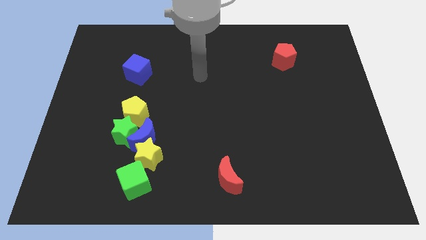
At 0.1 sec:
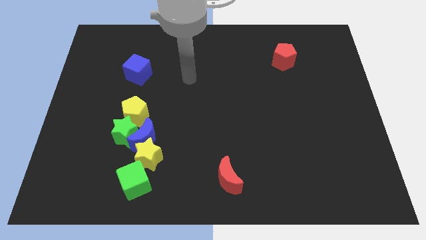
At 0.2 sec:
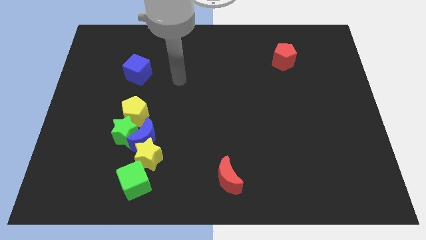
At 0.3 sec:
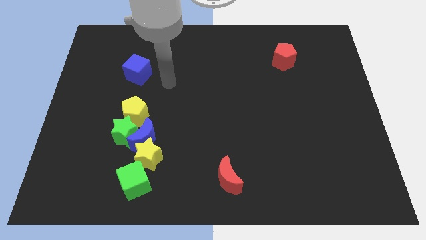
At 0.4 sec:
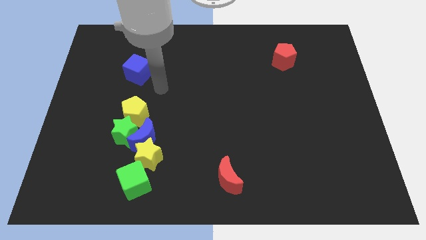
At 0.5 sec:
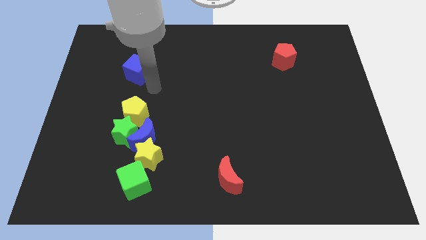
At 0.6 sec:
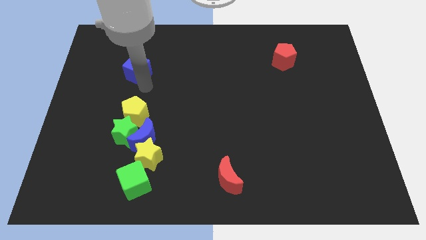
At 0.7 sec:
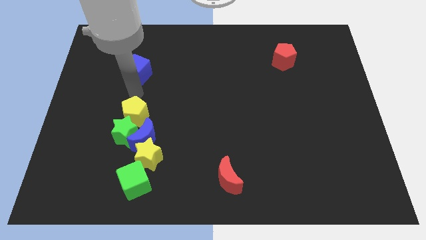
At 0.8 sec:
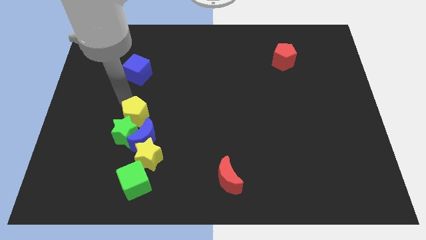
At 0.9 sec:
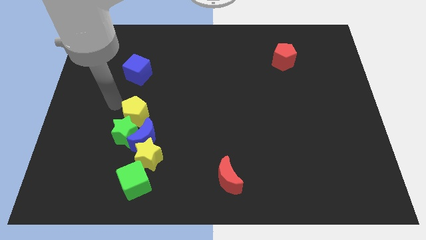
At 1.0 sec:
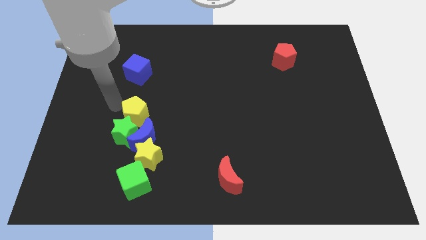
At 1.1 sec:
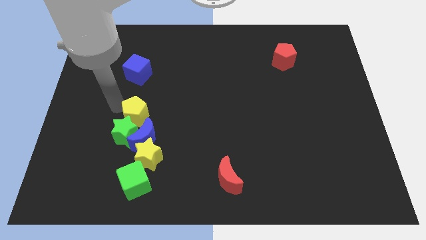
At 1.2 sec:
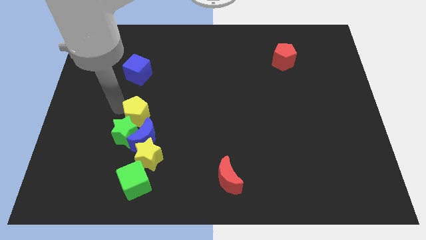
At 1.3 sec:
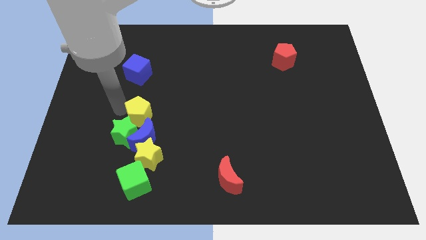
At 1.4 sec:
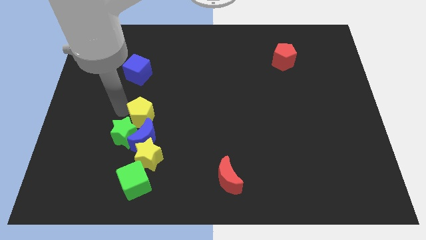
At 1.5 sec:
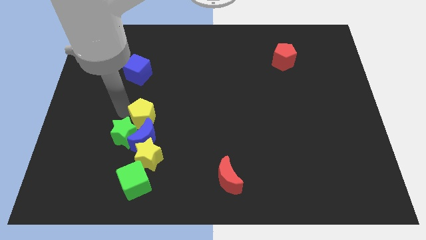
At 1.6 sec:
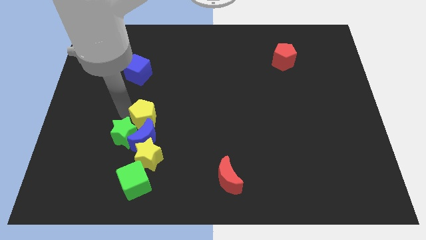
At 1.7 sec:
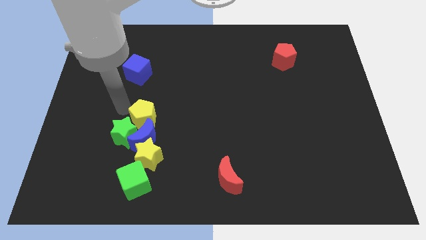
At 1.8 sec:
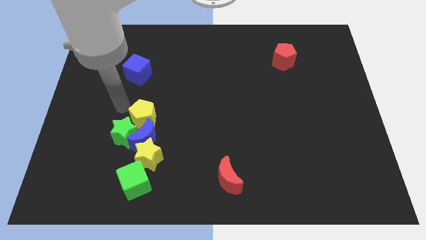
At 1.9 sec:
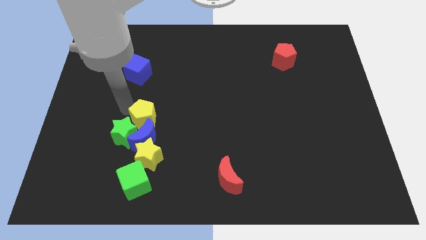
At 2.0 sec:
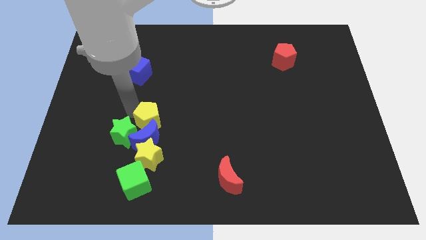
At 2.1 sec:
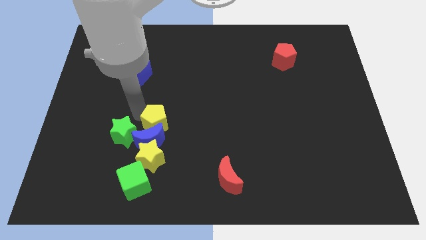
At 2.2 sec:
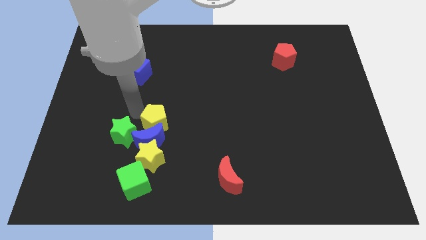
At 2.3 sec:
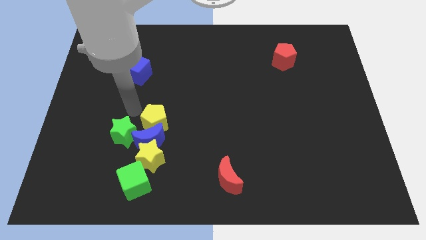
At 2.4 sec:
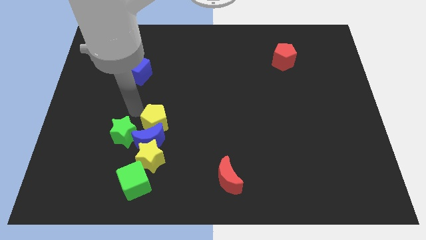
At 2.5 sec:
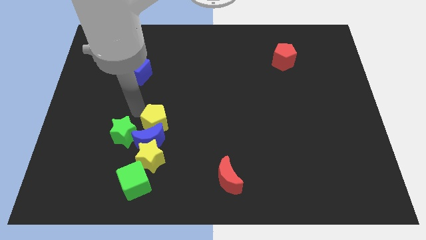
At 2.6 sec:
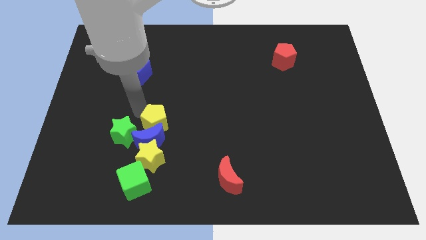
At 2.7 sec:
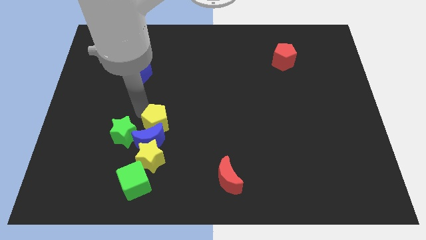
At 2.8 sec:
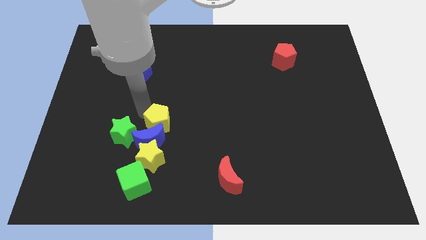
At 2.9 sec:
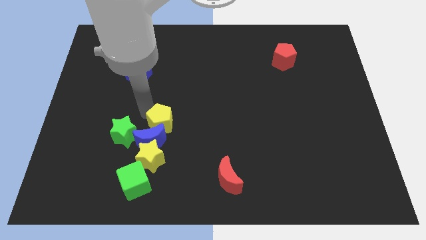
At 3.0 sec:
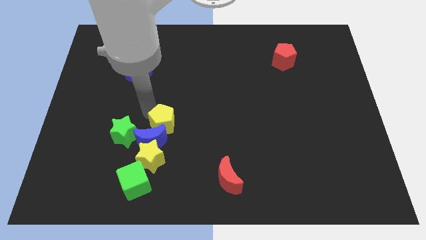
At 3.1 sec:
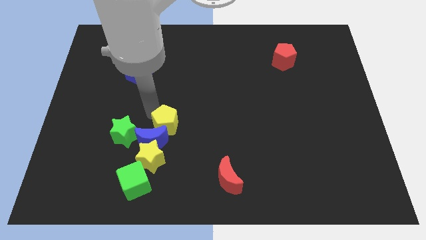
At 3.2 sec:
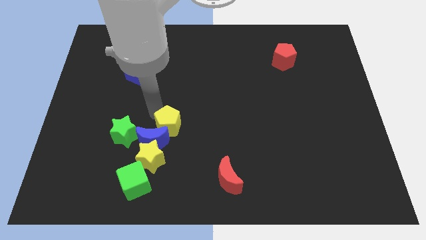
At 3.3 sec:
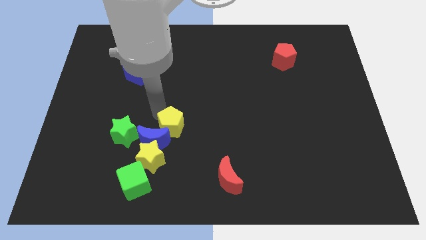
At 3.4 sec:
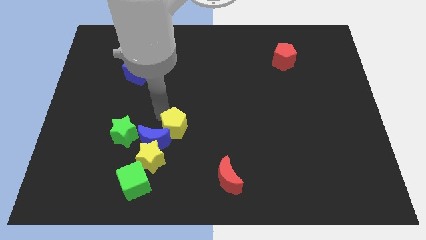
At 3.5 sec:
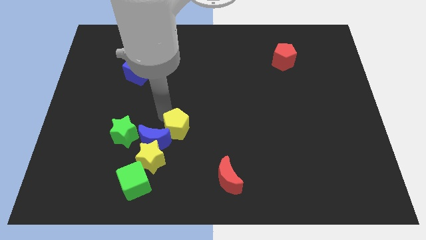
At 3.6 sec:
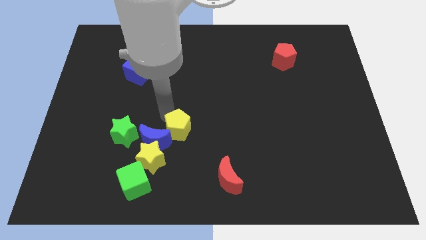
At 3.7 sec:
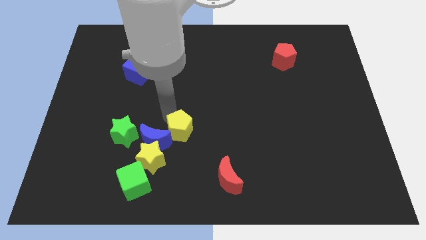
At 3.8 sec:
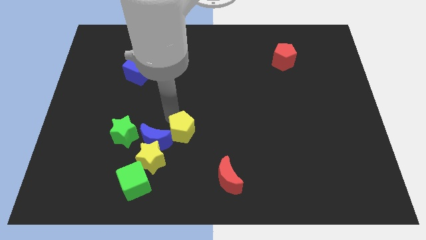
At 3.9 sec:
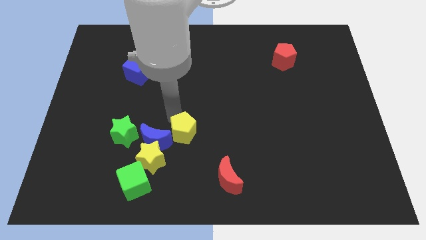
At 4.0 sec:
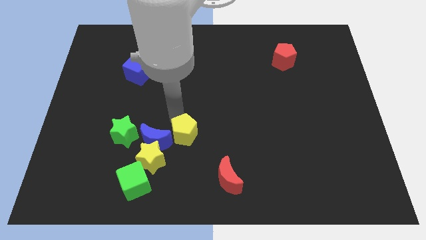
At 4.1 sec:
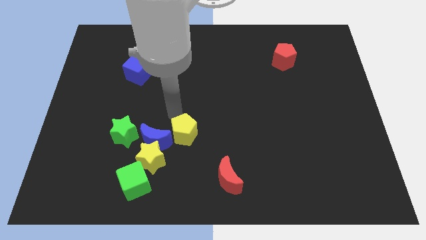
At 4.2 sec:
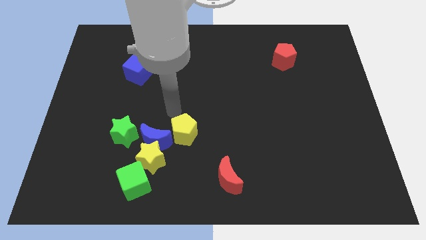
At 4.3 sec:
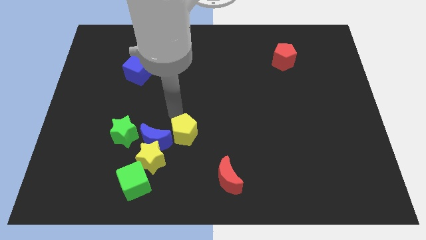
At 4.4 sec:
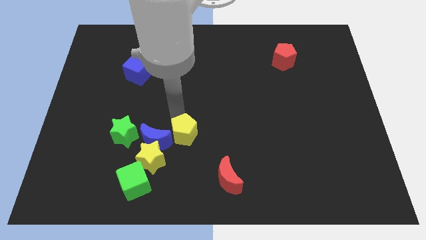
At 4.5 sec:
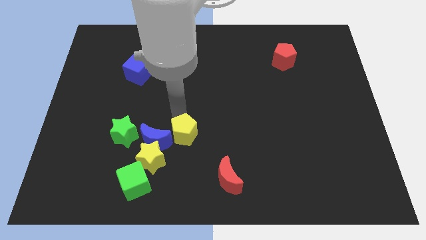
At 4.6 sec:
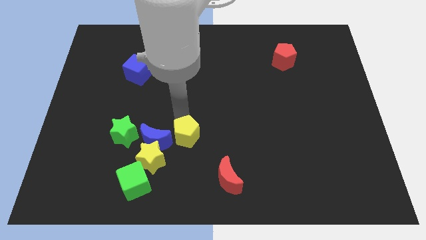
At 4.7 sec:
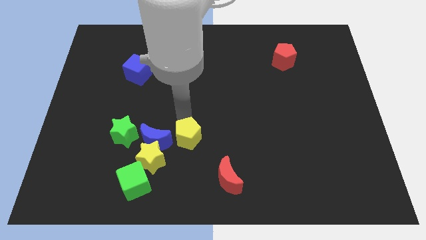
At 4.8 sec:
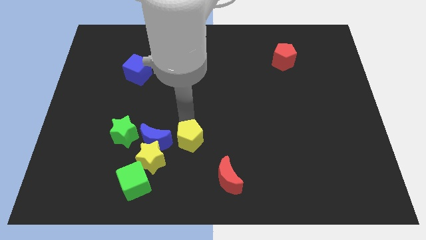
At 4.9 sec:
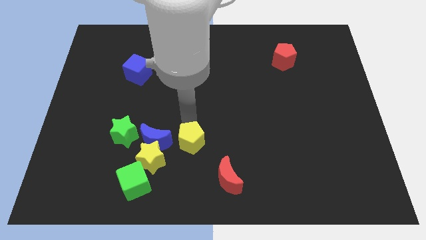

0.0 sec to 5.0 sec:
move the yellow pentagon right of the yellow star

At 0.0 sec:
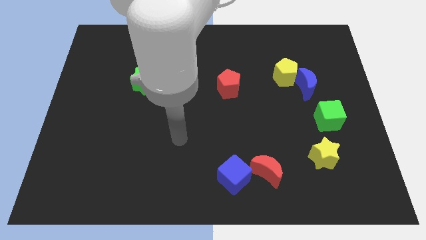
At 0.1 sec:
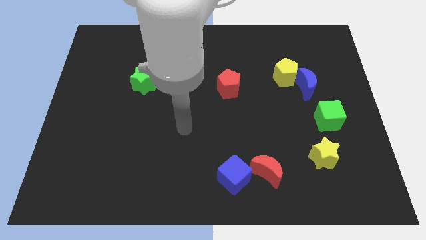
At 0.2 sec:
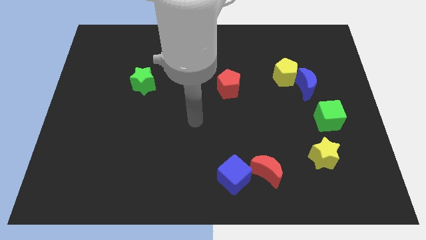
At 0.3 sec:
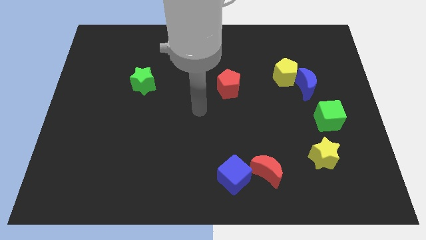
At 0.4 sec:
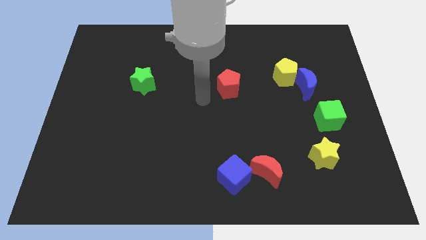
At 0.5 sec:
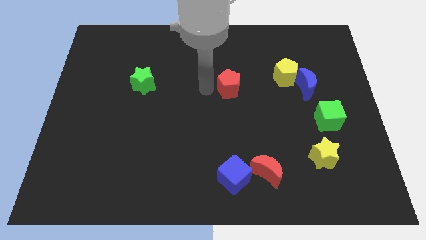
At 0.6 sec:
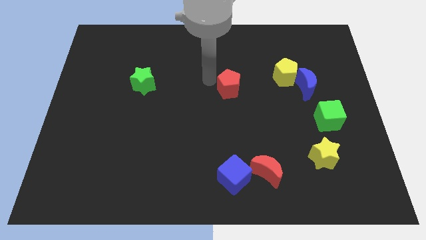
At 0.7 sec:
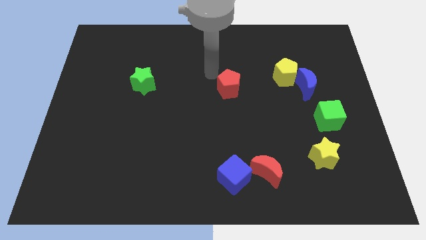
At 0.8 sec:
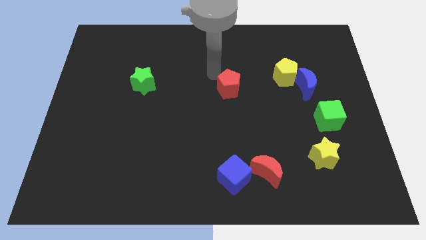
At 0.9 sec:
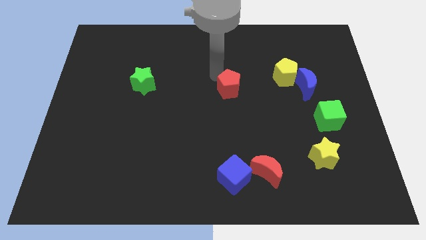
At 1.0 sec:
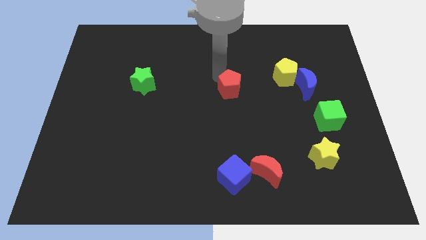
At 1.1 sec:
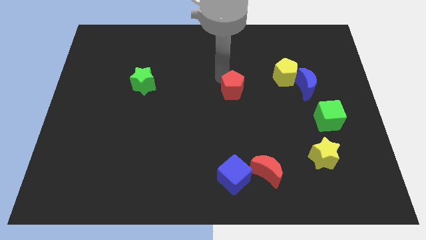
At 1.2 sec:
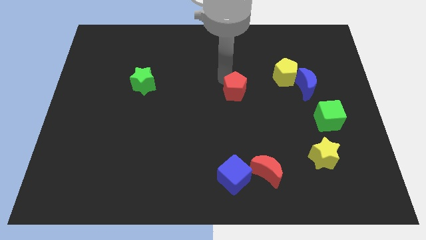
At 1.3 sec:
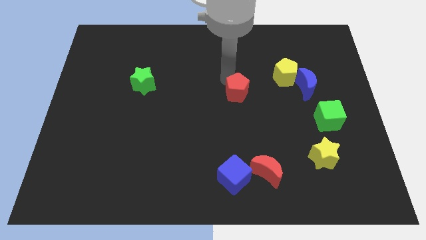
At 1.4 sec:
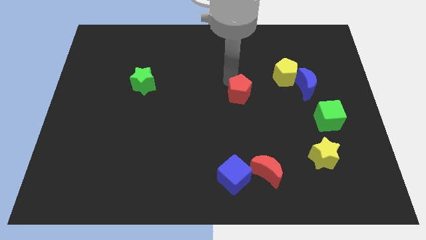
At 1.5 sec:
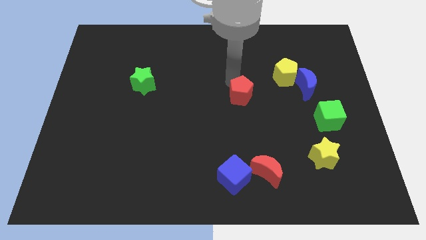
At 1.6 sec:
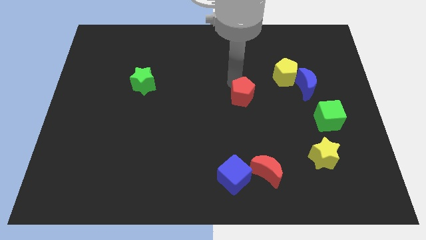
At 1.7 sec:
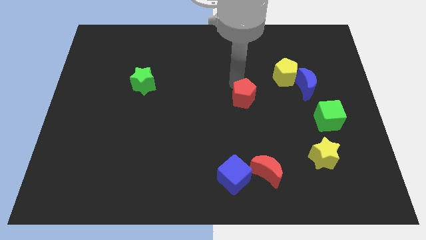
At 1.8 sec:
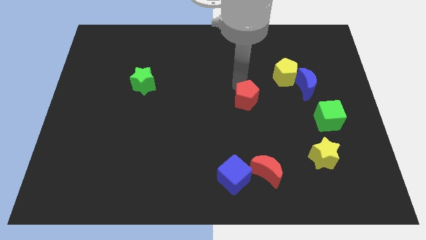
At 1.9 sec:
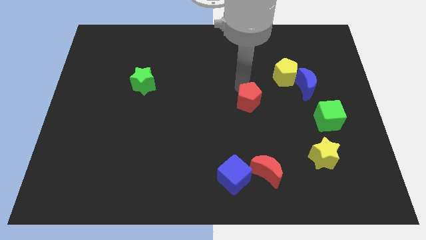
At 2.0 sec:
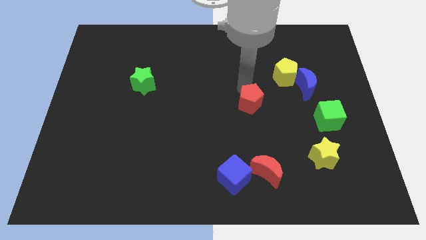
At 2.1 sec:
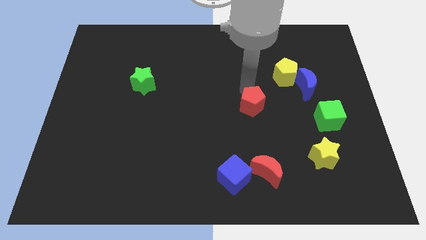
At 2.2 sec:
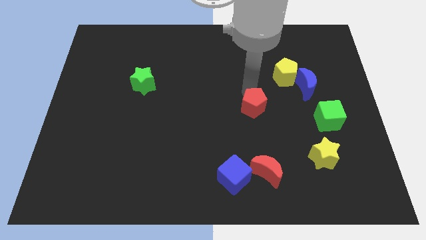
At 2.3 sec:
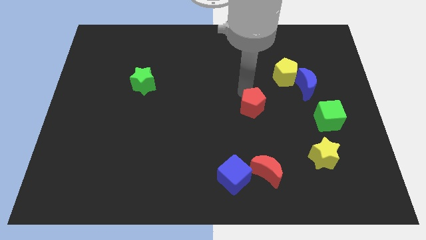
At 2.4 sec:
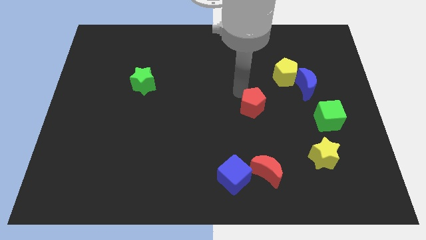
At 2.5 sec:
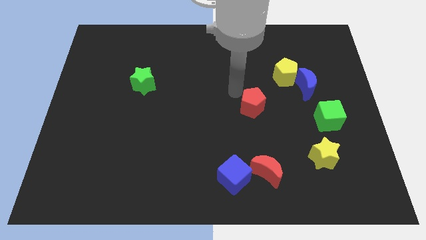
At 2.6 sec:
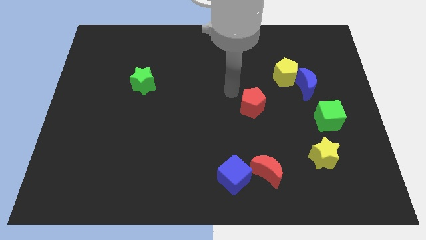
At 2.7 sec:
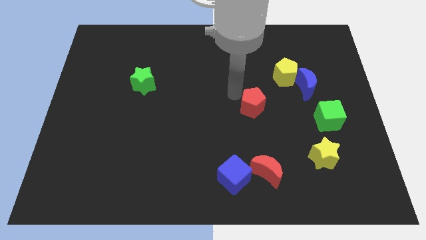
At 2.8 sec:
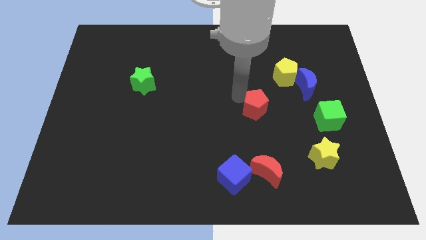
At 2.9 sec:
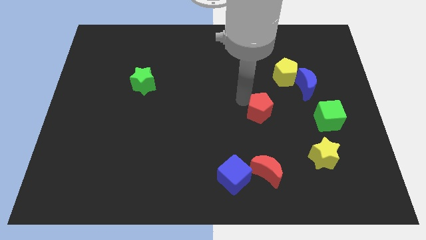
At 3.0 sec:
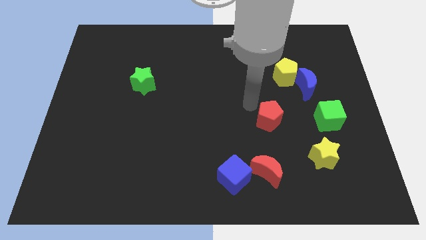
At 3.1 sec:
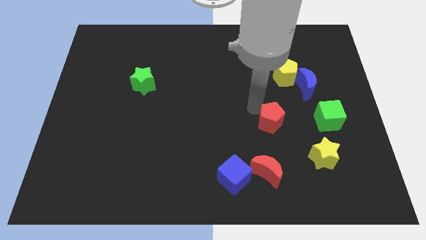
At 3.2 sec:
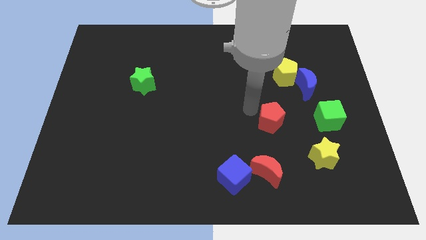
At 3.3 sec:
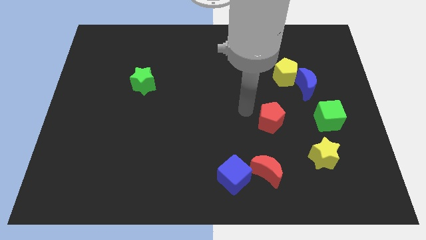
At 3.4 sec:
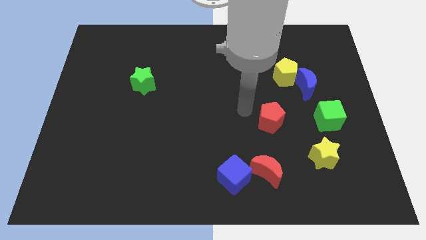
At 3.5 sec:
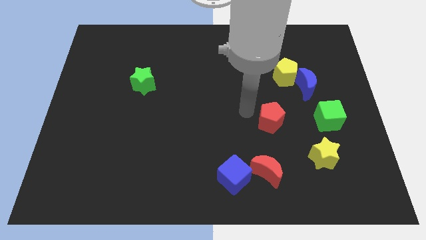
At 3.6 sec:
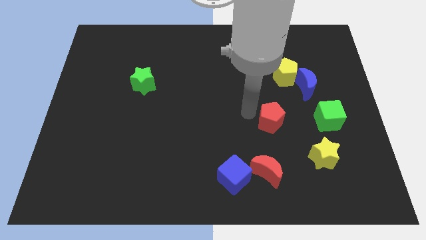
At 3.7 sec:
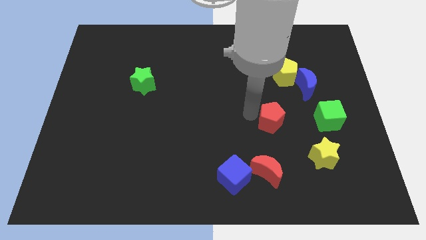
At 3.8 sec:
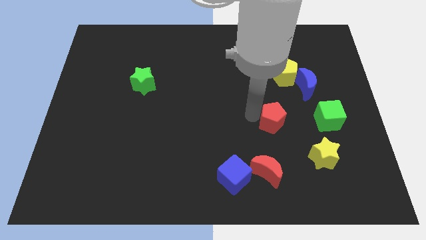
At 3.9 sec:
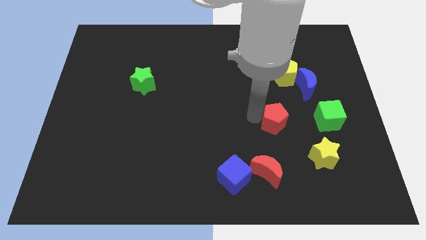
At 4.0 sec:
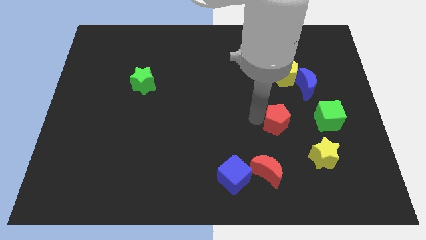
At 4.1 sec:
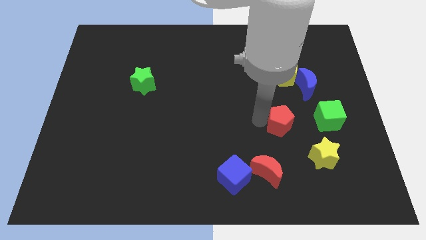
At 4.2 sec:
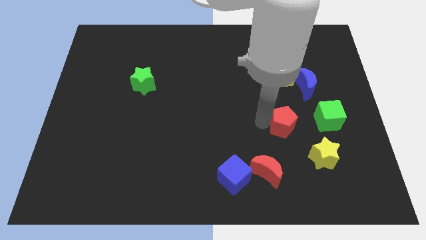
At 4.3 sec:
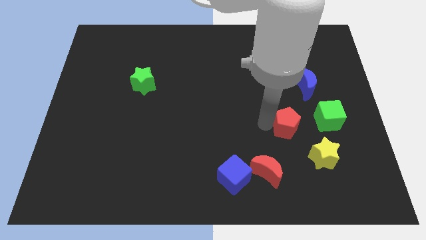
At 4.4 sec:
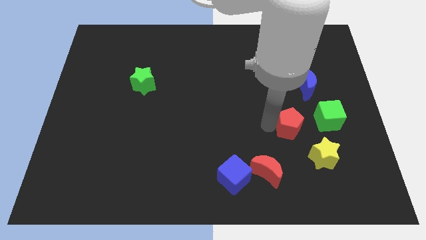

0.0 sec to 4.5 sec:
push the red pentagon to the bottom left of the green cube
